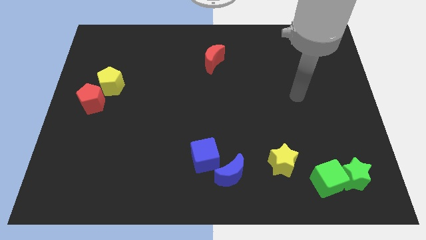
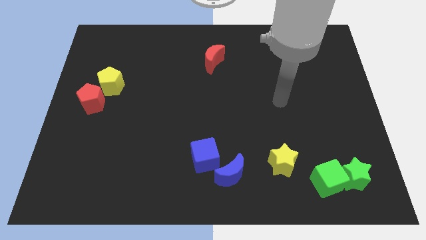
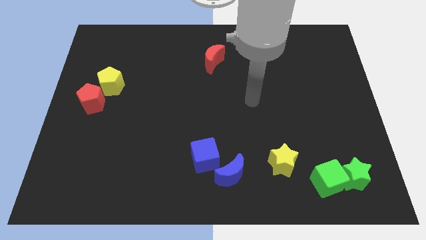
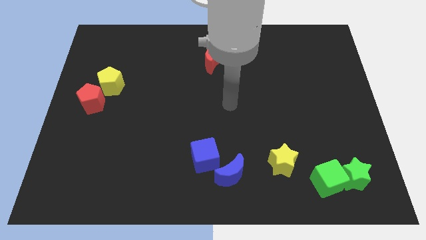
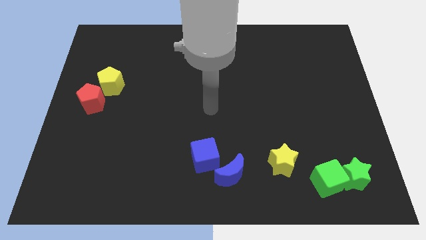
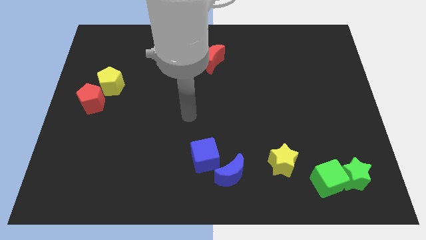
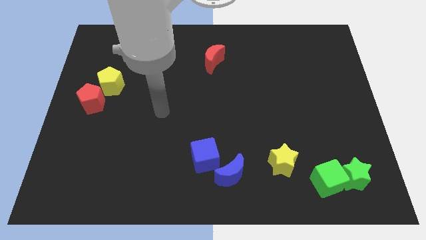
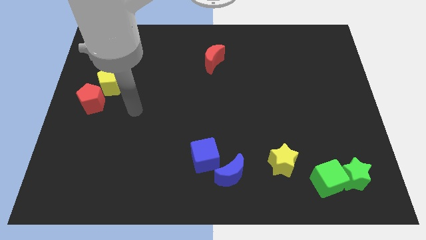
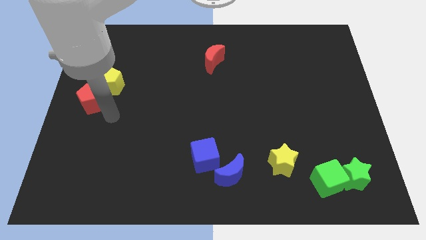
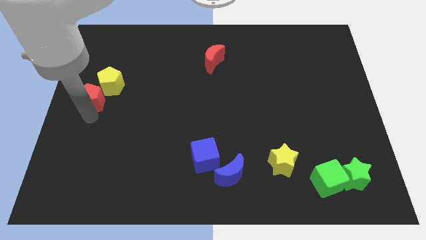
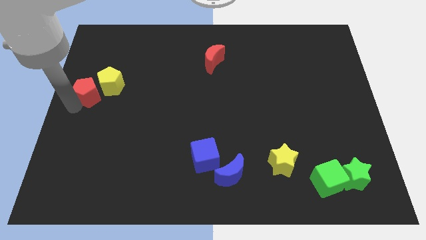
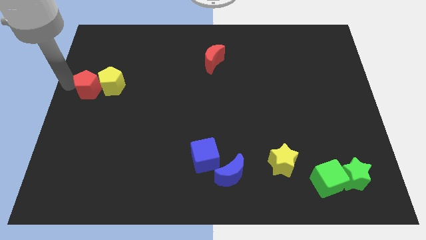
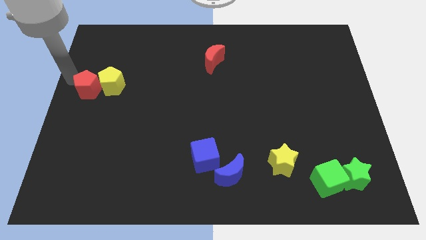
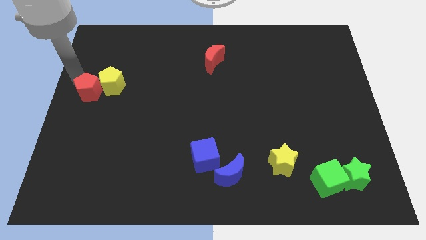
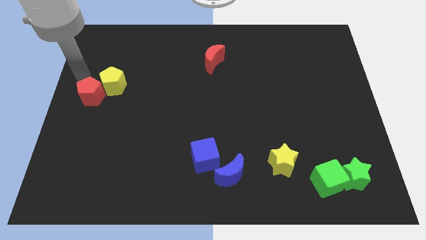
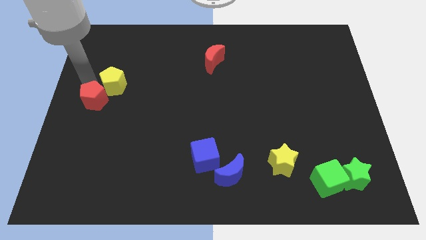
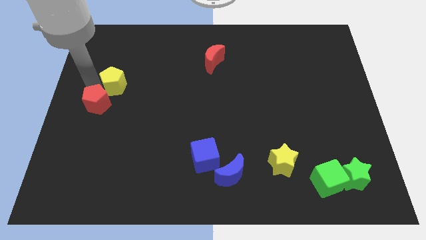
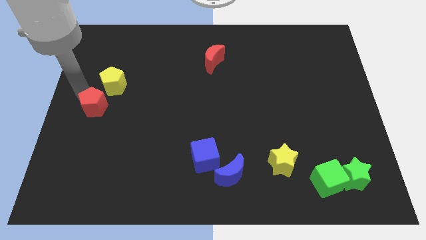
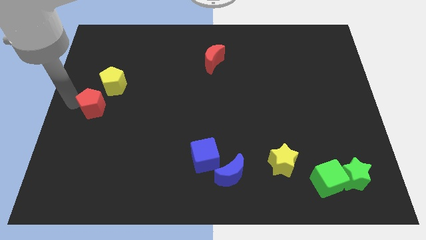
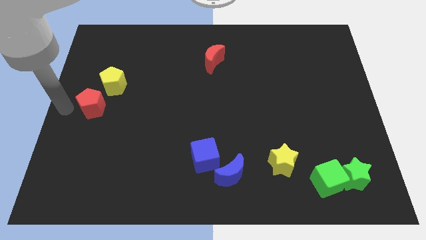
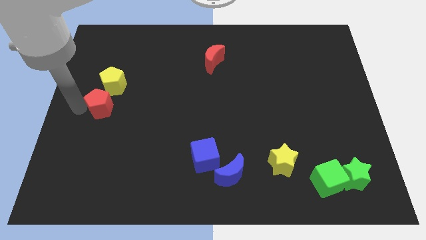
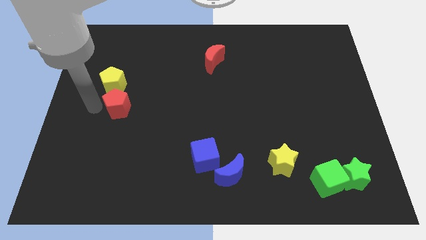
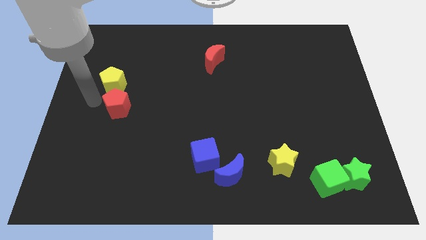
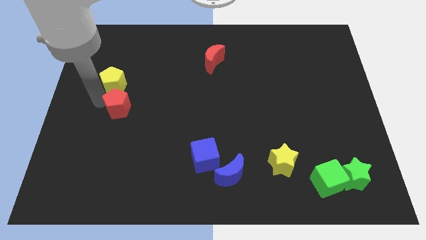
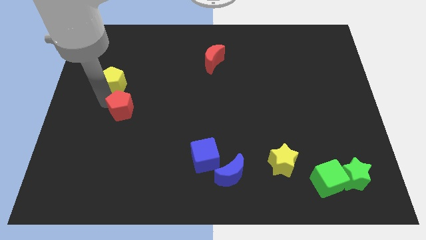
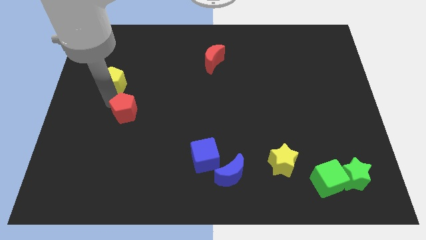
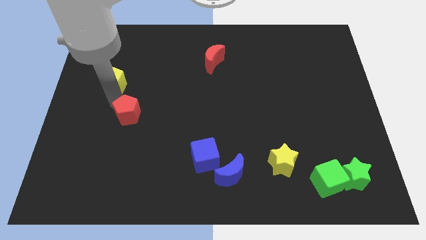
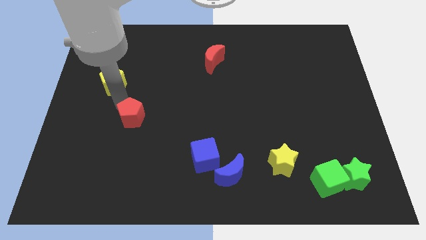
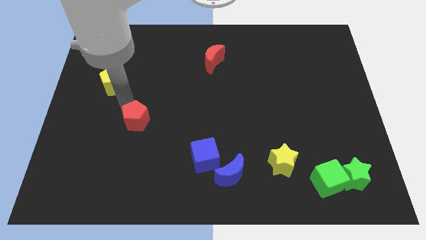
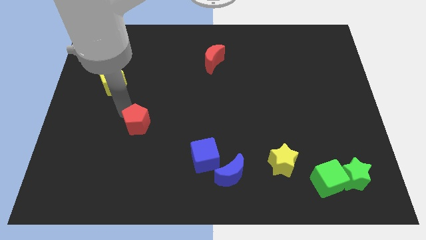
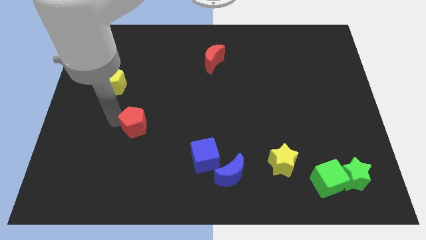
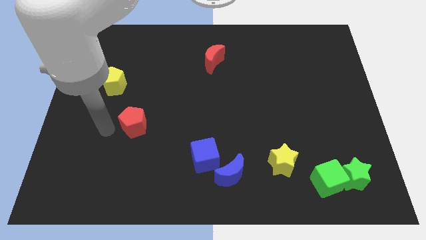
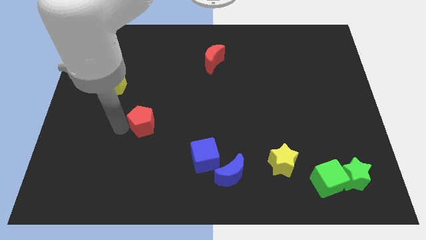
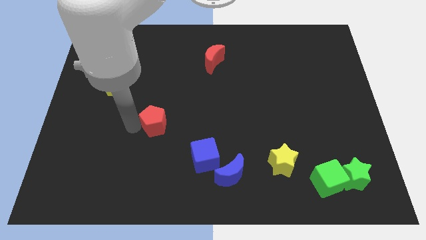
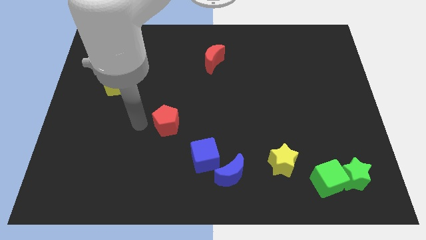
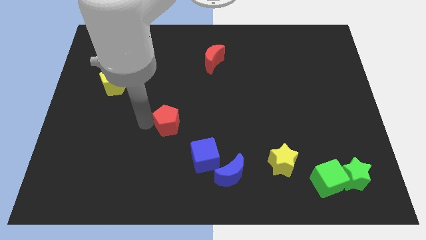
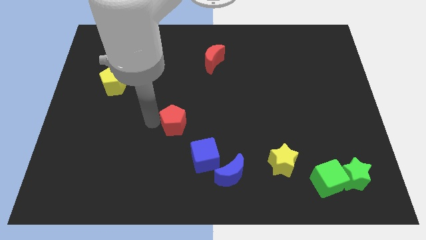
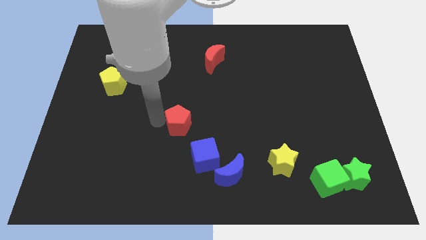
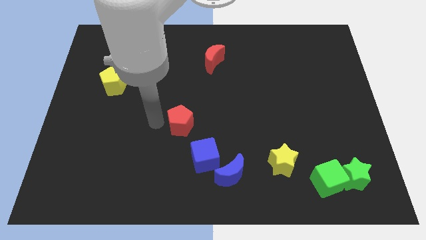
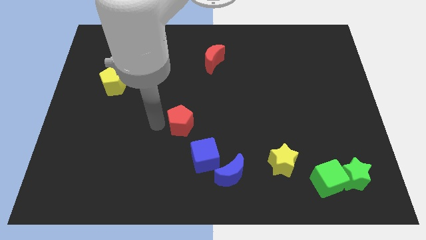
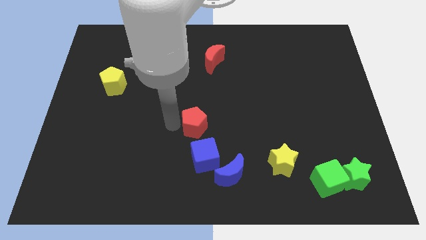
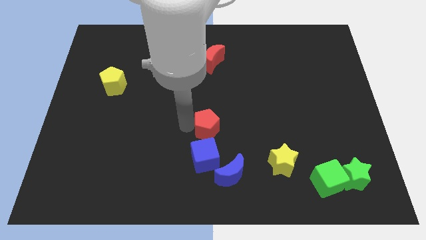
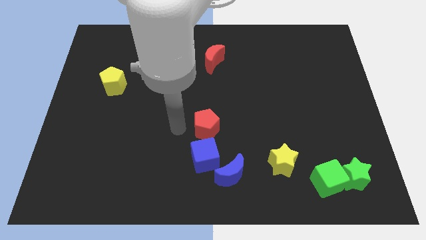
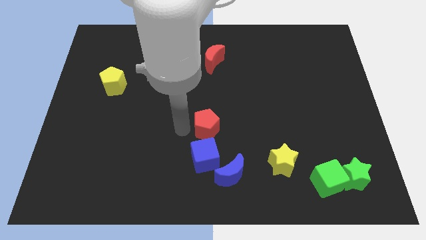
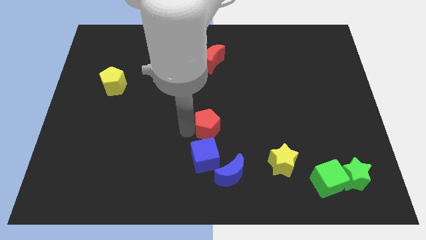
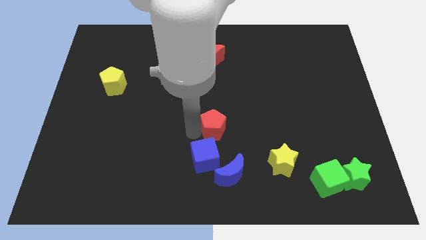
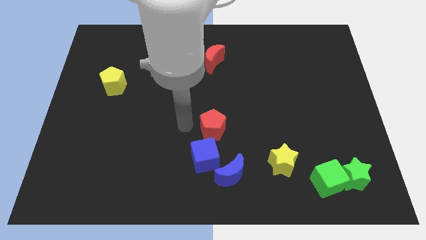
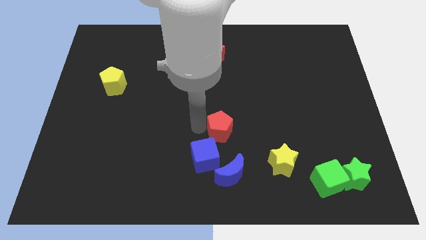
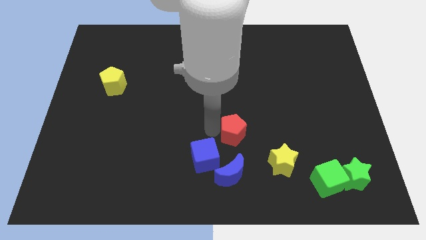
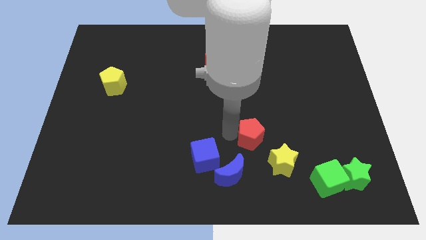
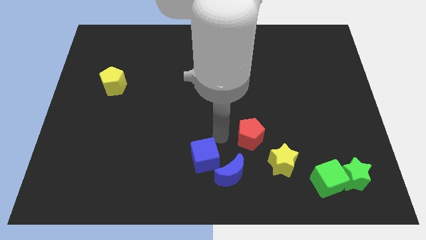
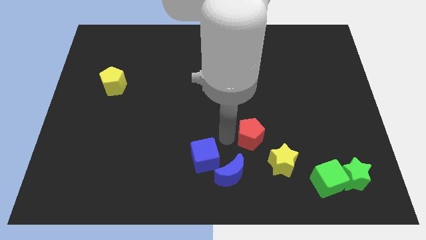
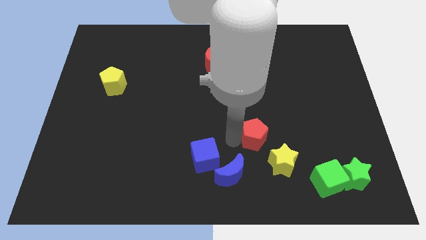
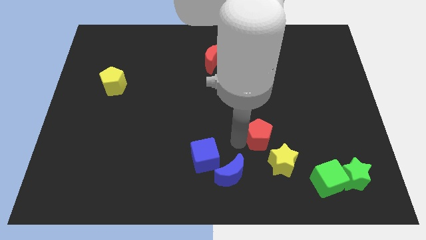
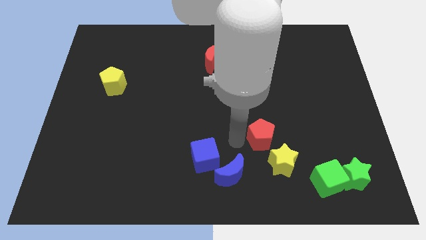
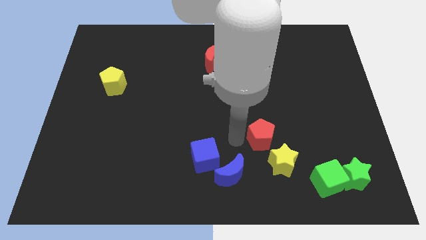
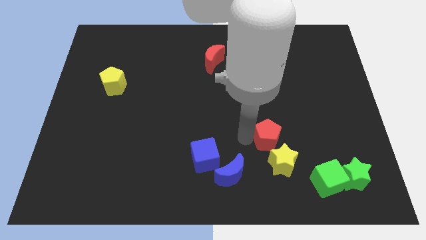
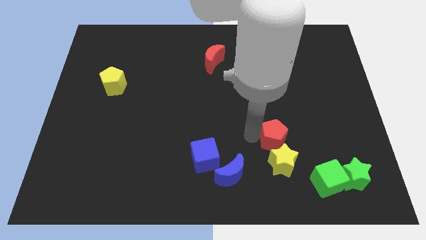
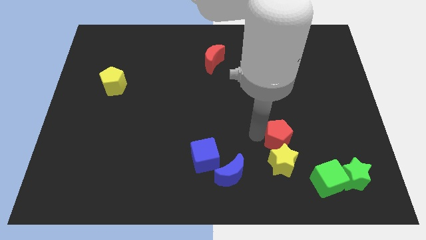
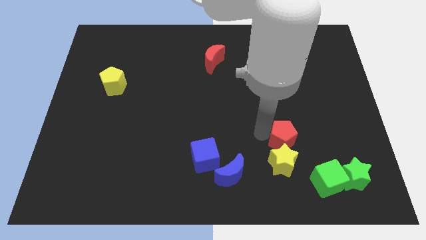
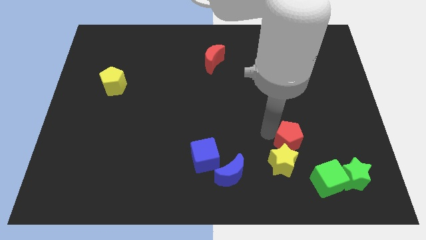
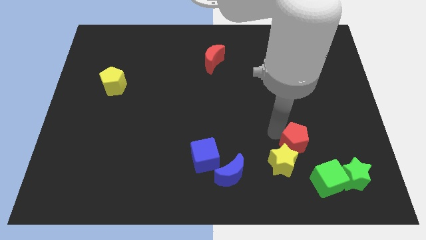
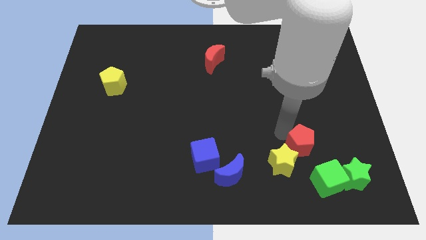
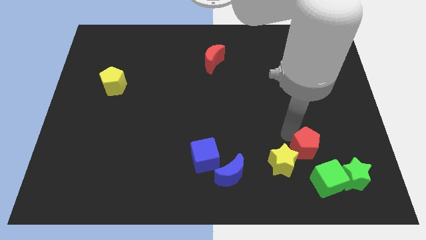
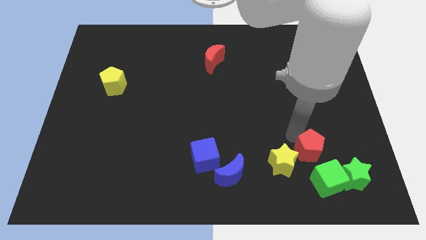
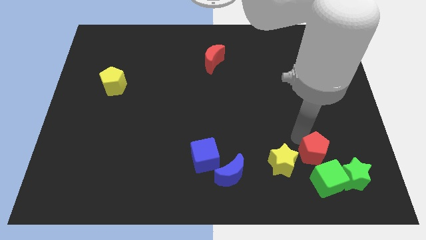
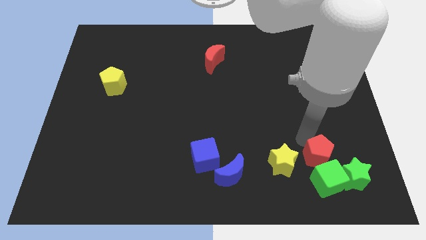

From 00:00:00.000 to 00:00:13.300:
put the red pentagon to the green cube

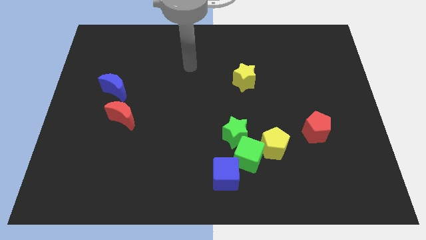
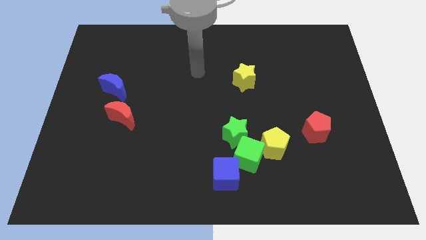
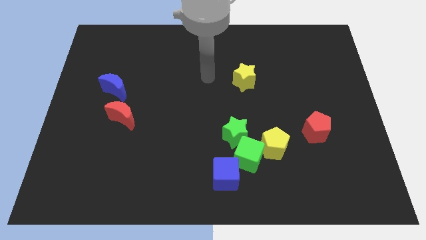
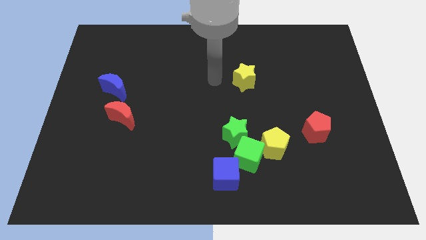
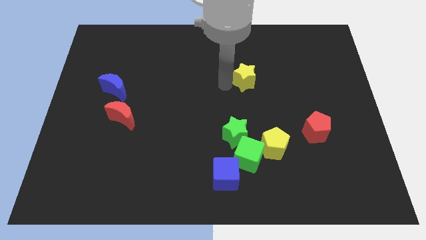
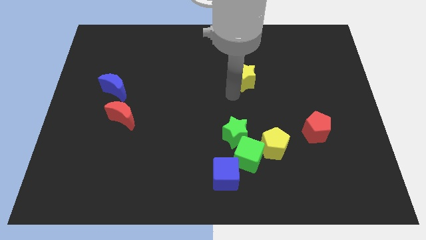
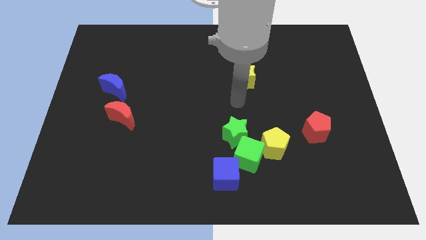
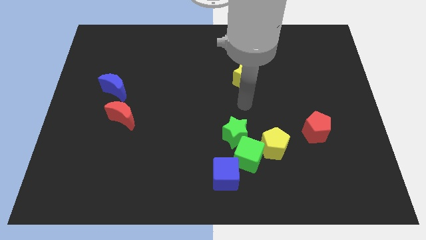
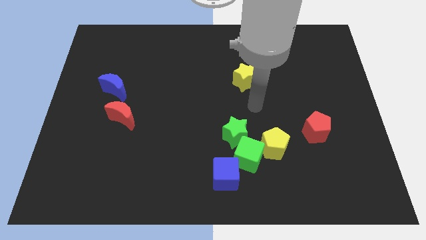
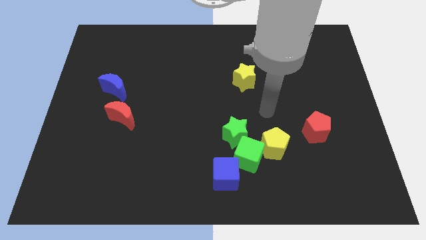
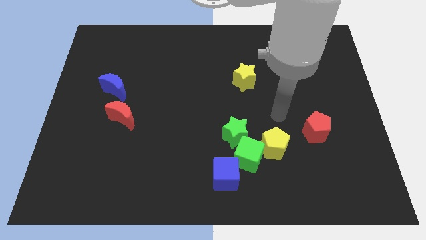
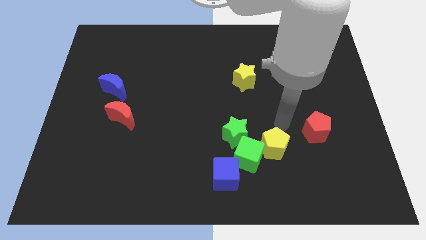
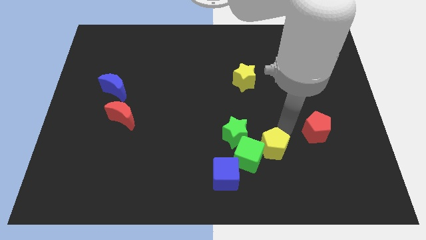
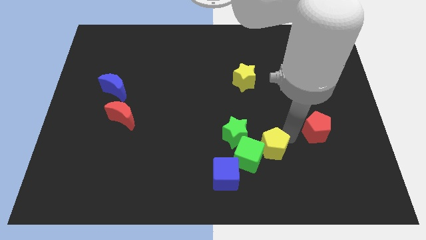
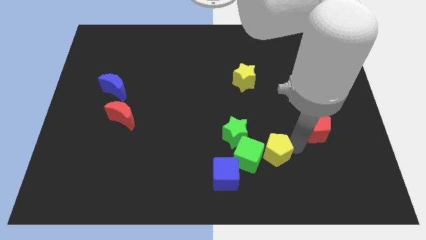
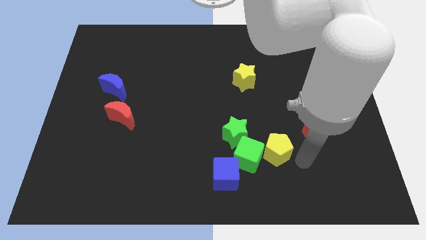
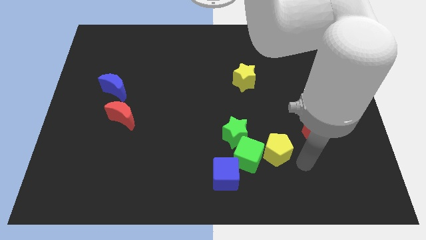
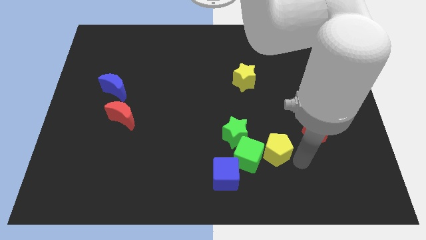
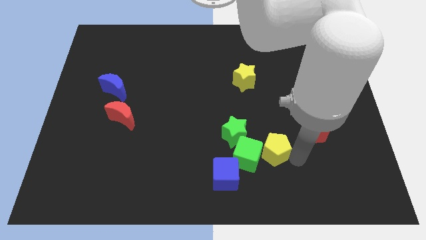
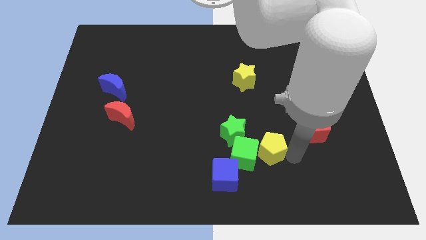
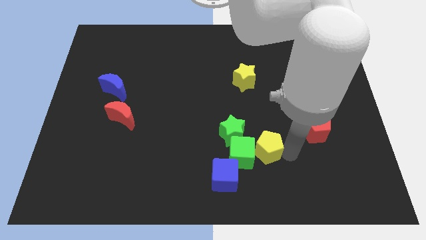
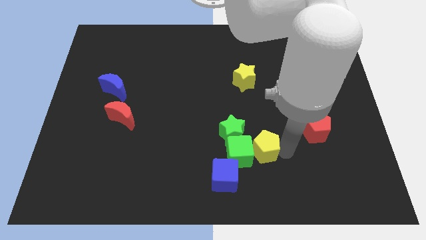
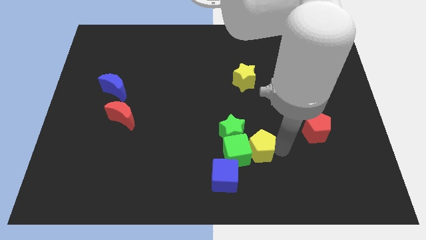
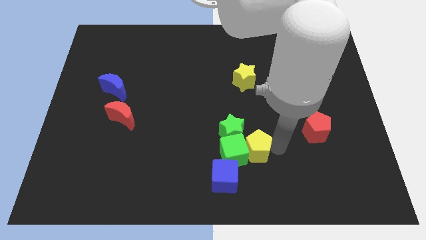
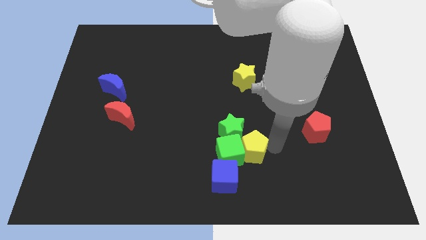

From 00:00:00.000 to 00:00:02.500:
put the yellow pentagon to the green star
